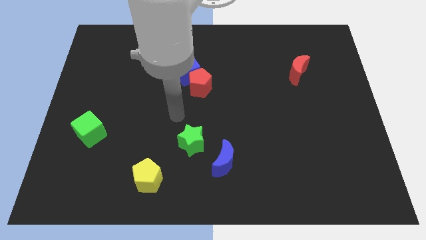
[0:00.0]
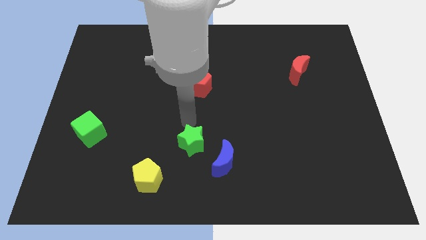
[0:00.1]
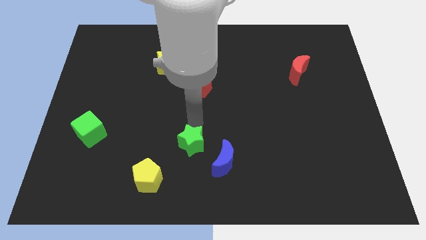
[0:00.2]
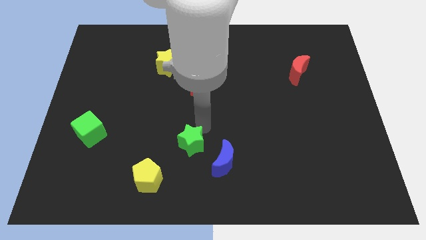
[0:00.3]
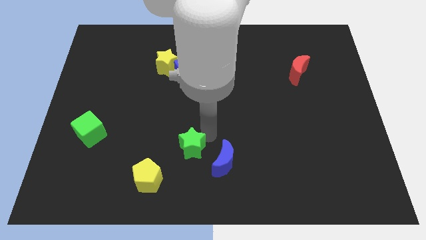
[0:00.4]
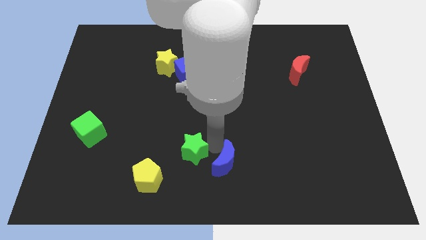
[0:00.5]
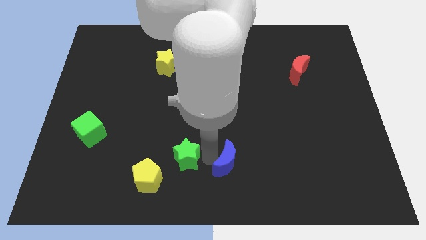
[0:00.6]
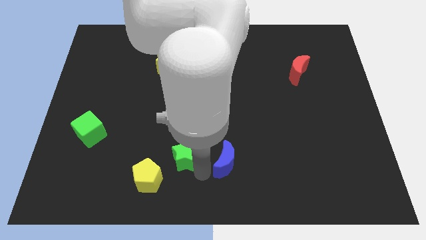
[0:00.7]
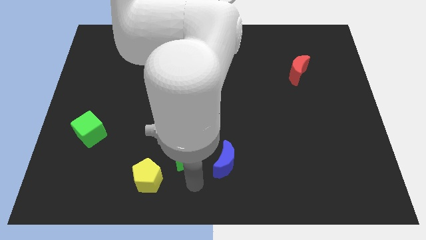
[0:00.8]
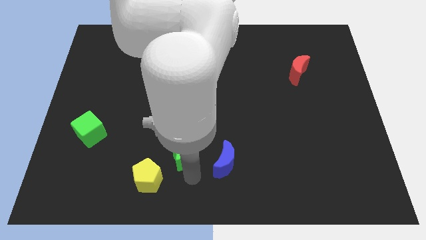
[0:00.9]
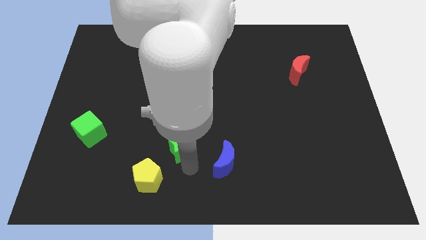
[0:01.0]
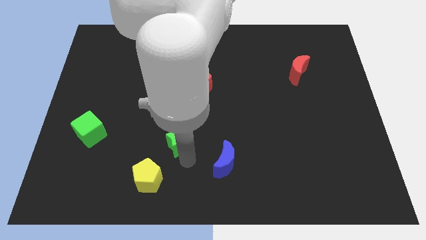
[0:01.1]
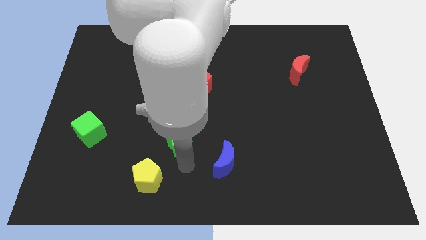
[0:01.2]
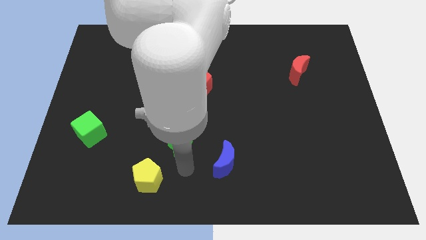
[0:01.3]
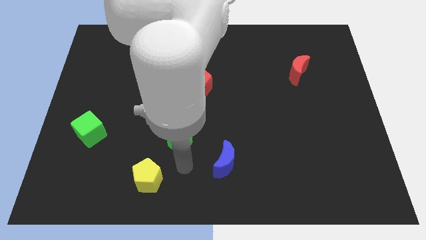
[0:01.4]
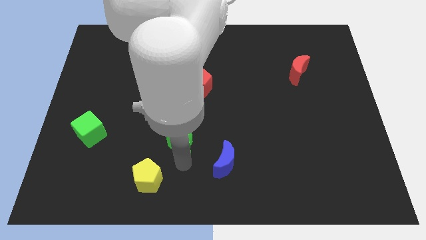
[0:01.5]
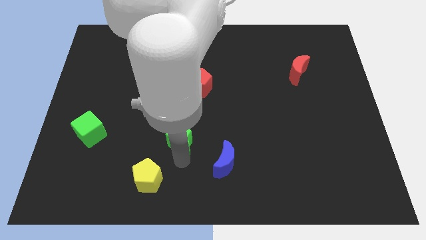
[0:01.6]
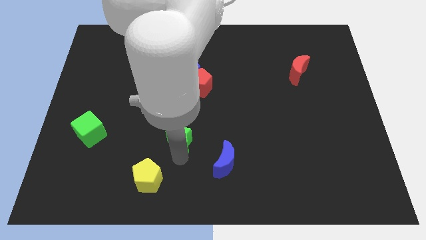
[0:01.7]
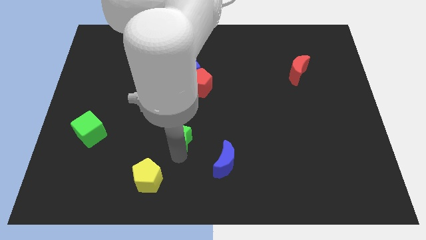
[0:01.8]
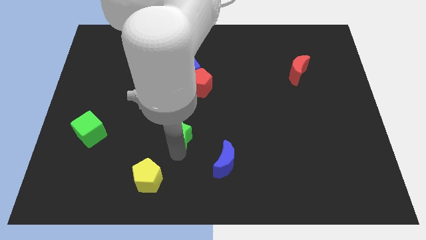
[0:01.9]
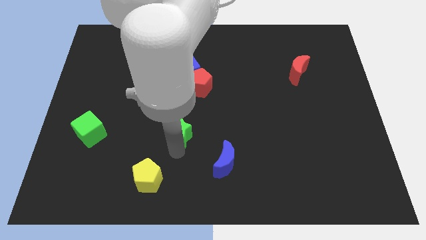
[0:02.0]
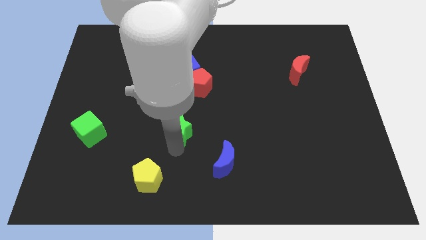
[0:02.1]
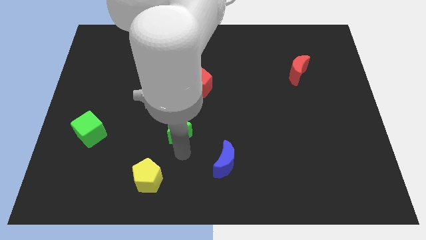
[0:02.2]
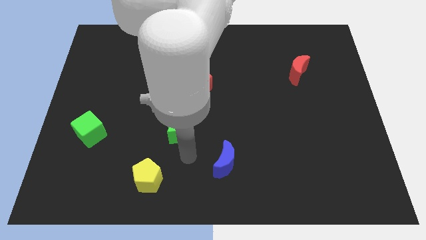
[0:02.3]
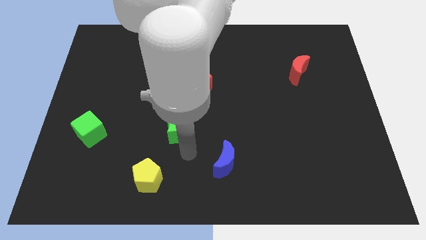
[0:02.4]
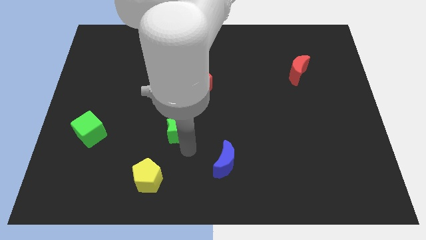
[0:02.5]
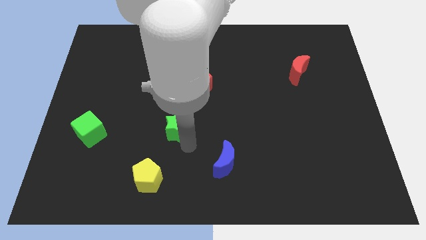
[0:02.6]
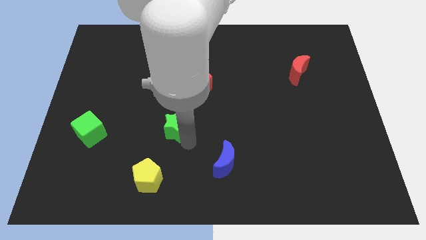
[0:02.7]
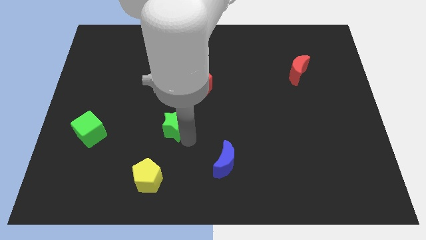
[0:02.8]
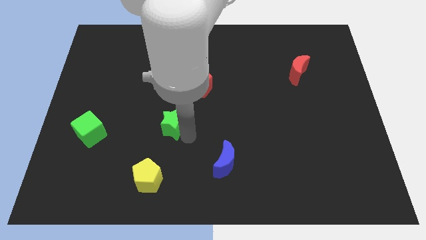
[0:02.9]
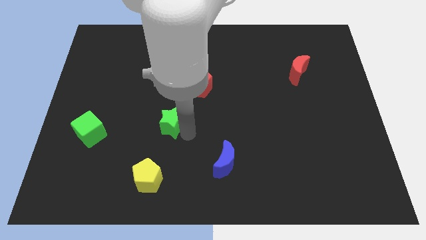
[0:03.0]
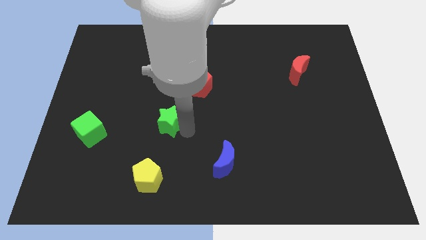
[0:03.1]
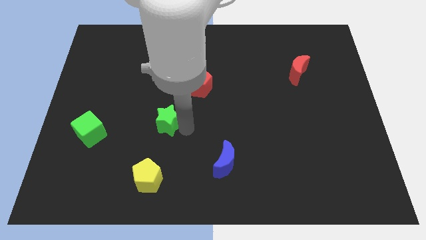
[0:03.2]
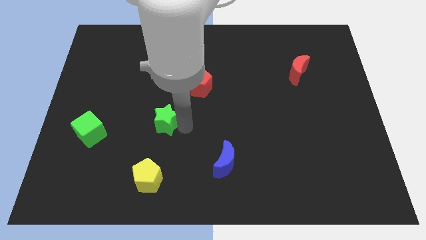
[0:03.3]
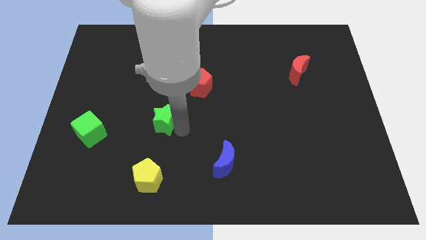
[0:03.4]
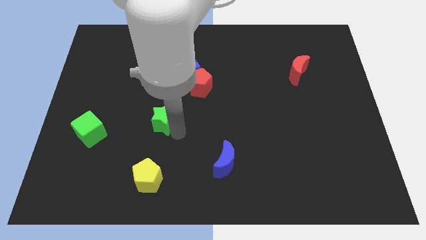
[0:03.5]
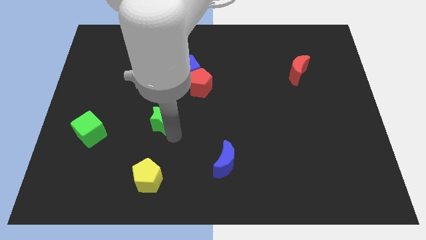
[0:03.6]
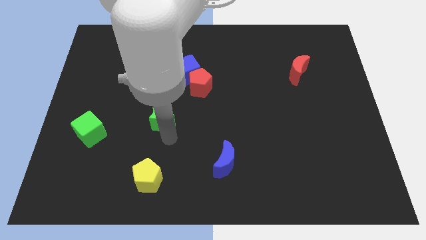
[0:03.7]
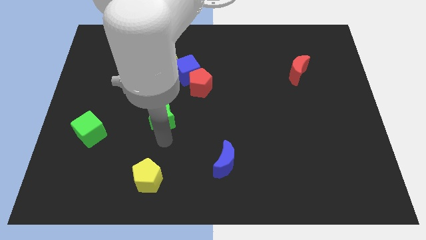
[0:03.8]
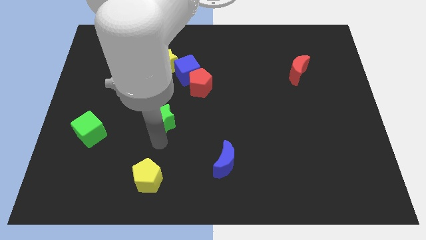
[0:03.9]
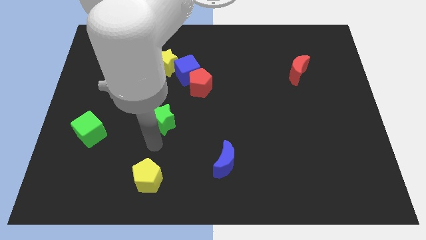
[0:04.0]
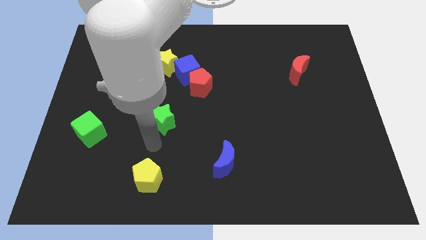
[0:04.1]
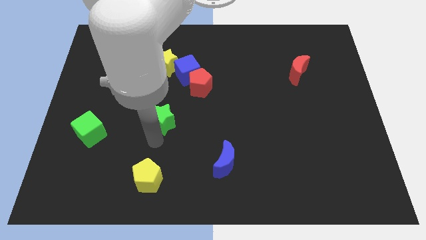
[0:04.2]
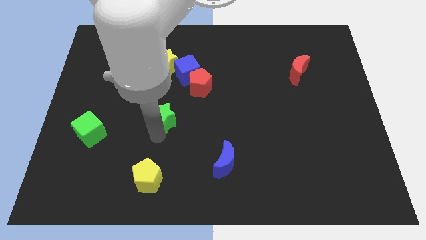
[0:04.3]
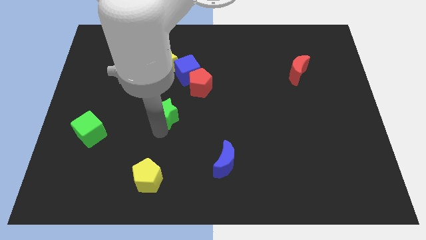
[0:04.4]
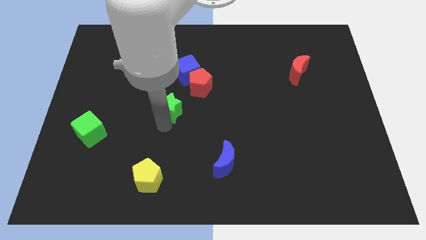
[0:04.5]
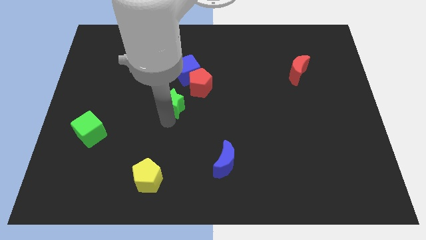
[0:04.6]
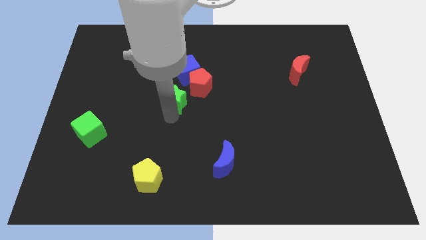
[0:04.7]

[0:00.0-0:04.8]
move the green star to the left side of the red pentagon

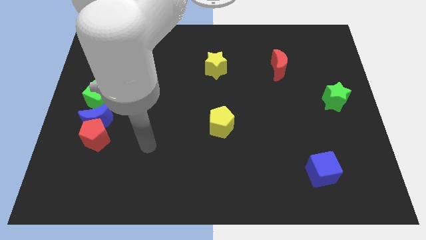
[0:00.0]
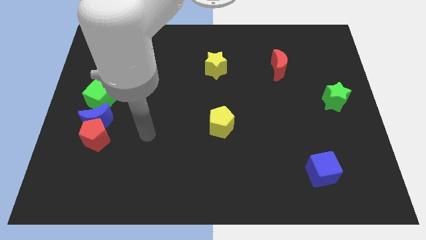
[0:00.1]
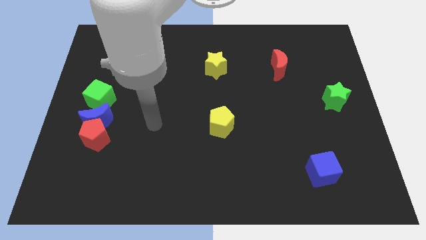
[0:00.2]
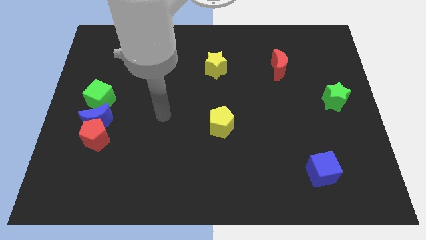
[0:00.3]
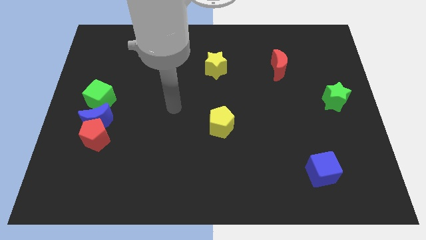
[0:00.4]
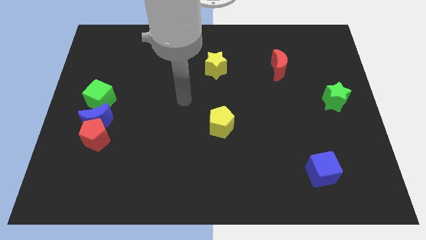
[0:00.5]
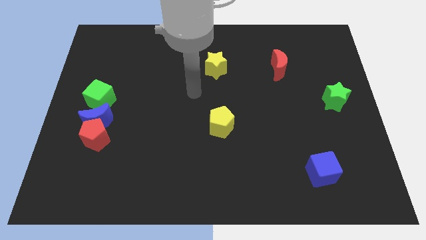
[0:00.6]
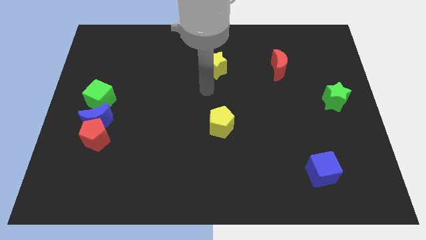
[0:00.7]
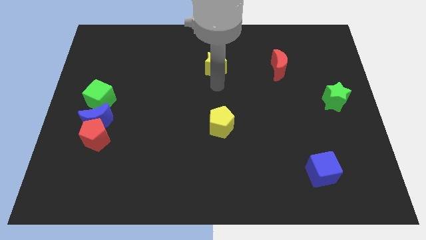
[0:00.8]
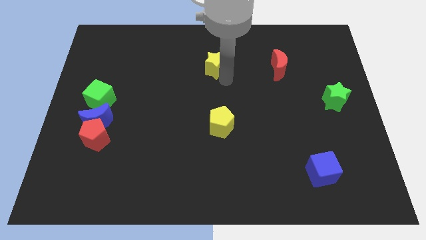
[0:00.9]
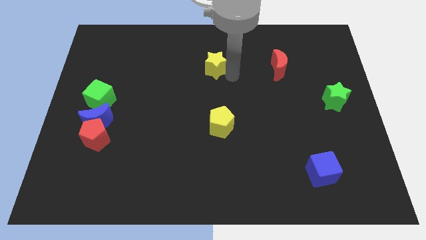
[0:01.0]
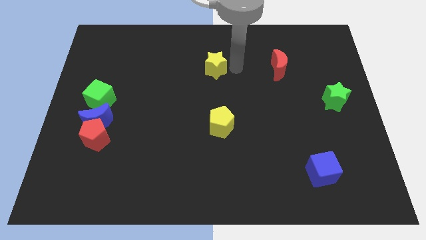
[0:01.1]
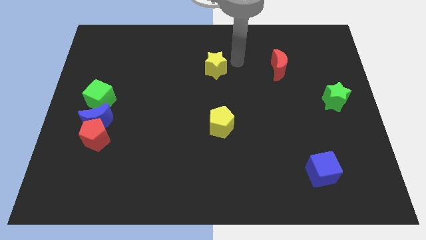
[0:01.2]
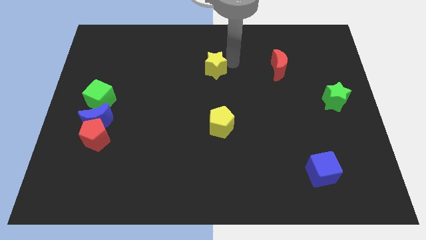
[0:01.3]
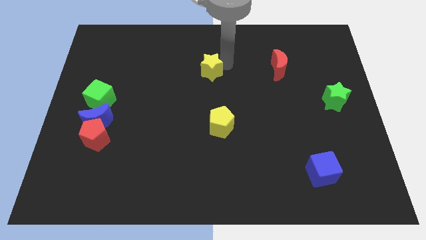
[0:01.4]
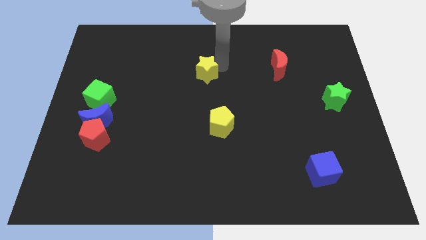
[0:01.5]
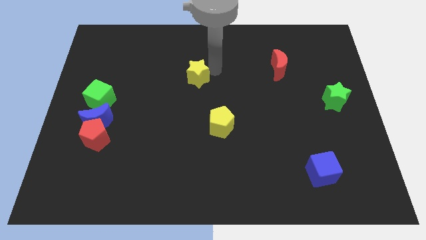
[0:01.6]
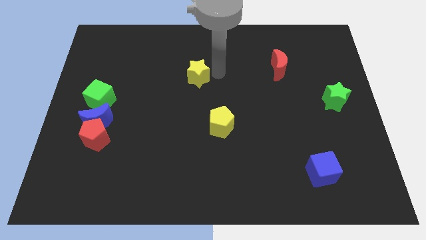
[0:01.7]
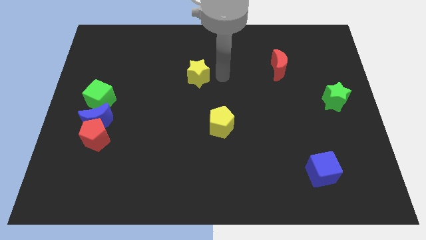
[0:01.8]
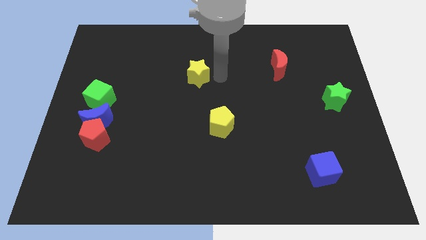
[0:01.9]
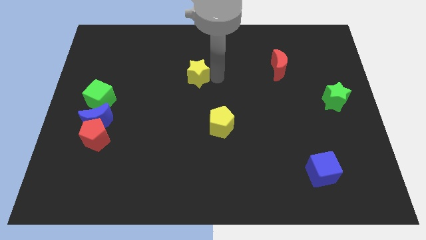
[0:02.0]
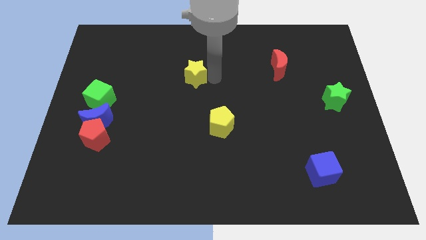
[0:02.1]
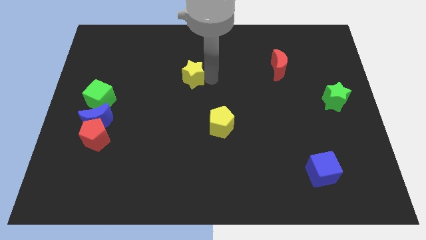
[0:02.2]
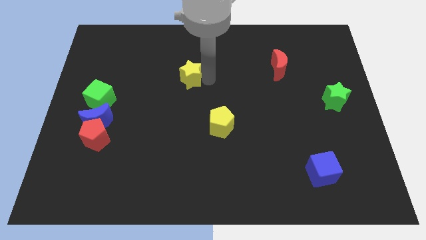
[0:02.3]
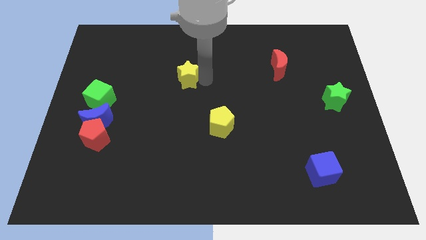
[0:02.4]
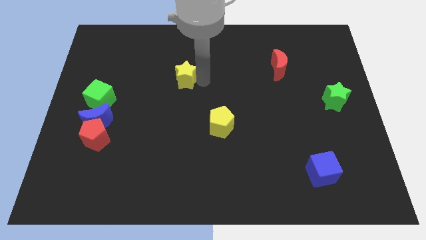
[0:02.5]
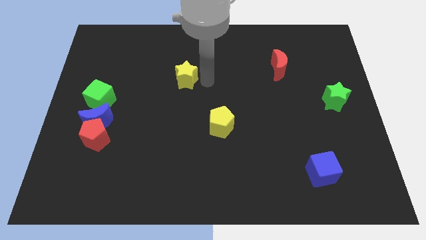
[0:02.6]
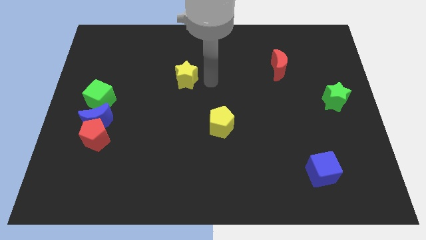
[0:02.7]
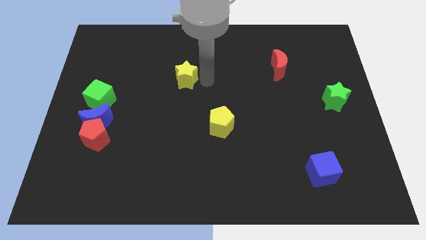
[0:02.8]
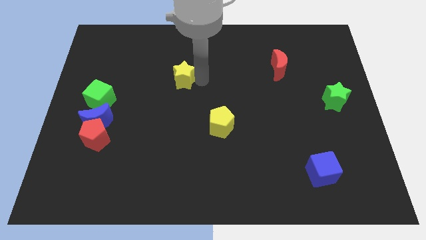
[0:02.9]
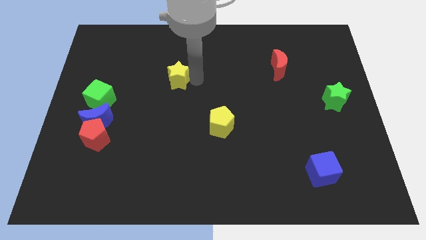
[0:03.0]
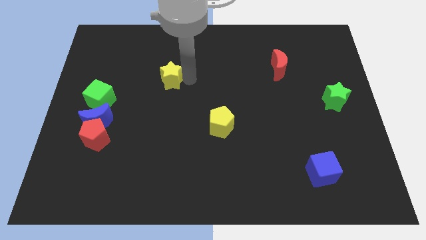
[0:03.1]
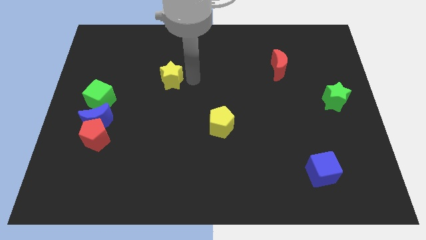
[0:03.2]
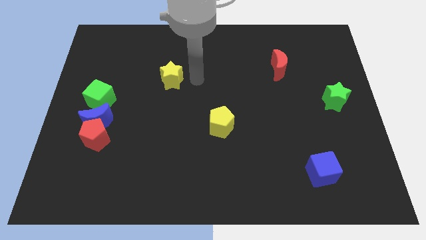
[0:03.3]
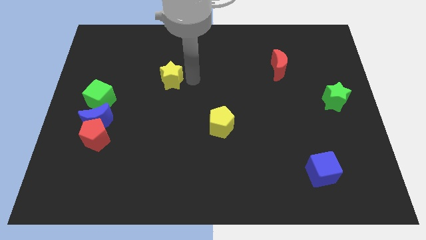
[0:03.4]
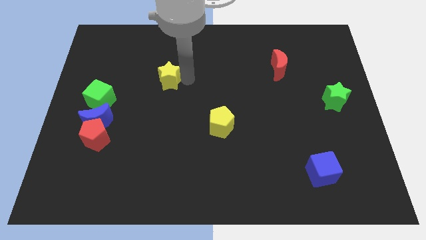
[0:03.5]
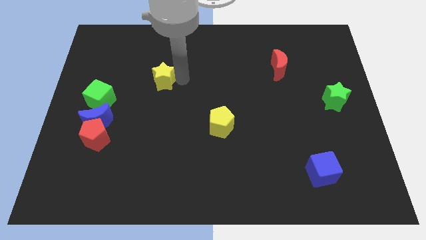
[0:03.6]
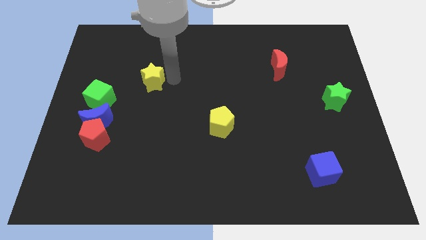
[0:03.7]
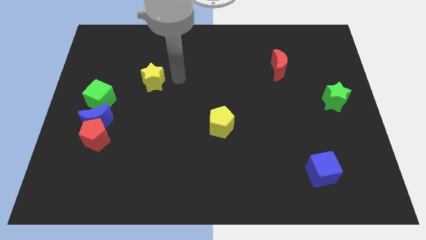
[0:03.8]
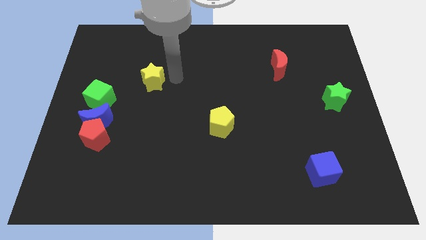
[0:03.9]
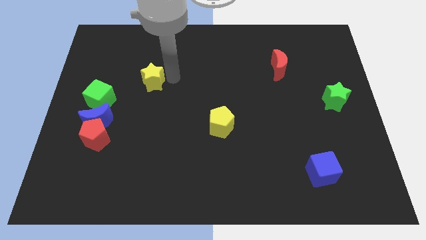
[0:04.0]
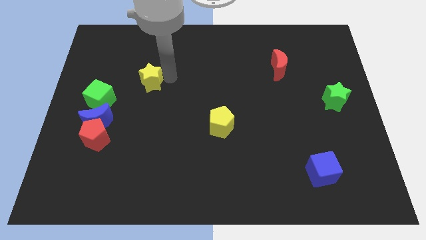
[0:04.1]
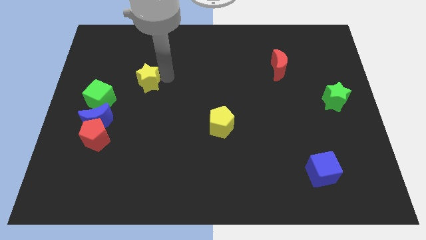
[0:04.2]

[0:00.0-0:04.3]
put the yellow star diagonally up and to the right of the green cube
